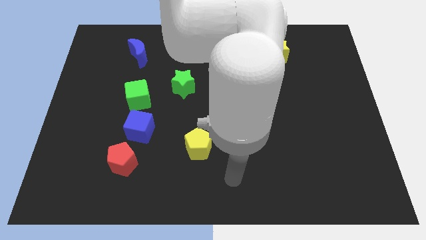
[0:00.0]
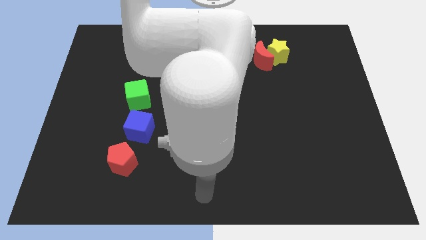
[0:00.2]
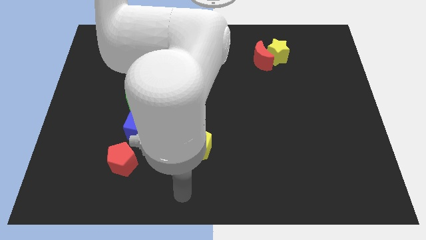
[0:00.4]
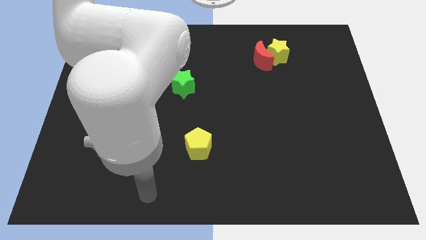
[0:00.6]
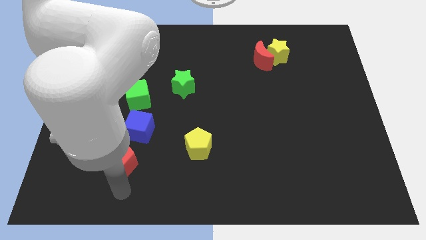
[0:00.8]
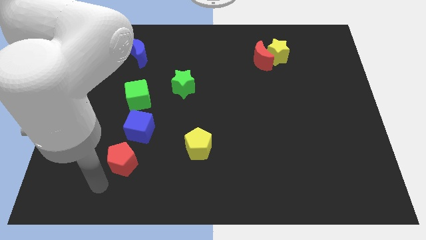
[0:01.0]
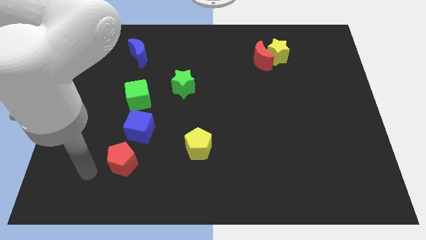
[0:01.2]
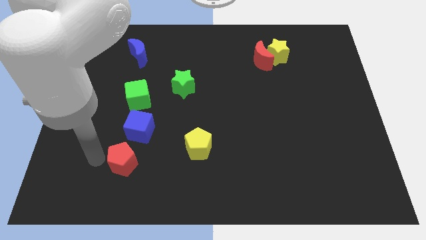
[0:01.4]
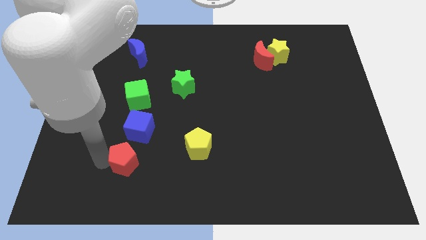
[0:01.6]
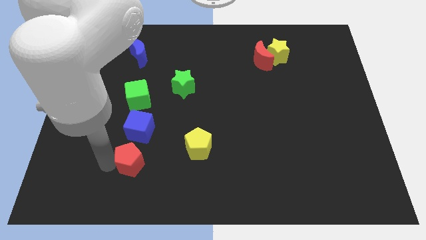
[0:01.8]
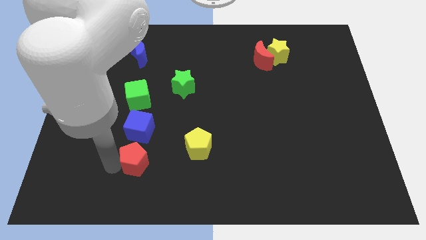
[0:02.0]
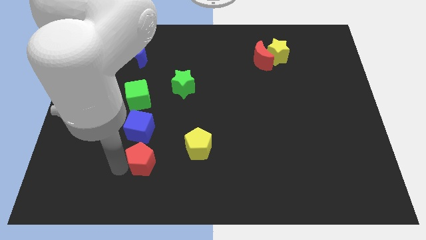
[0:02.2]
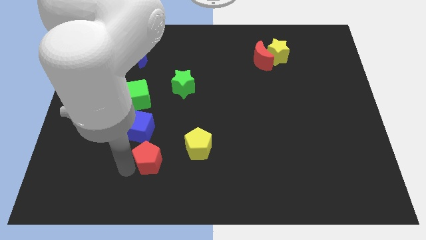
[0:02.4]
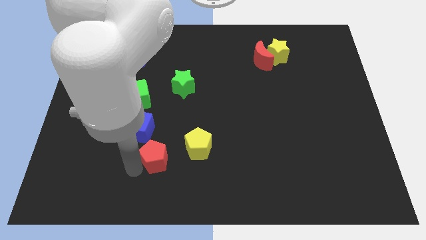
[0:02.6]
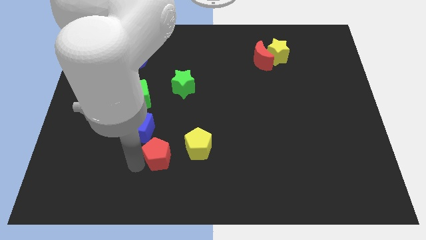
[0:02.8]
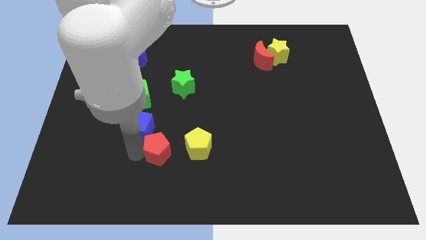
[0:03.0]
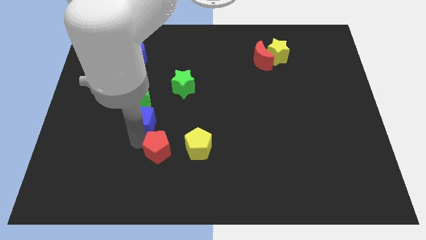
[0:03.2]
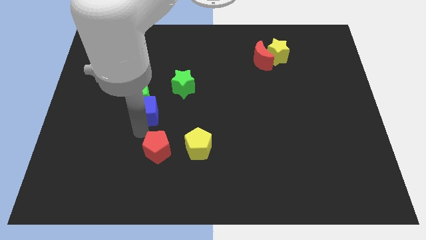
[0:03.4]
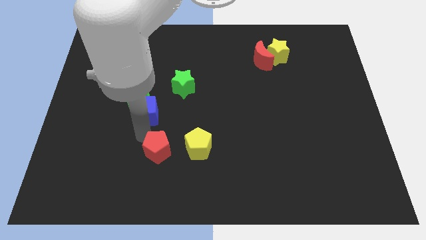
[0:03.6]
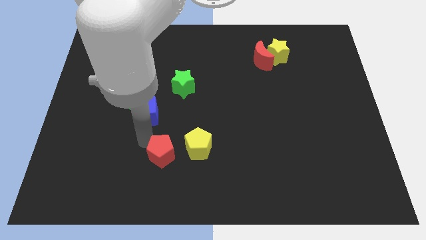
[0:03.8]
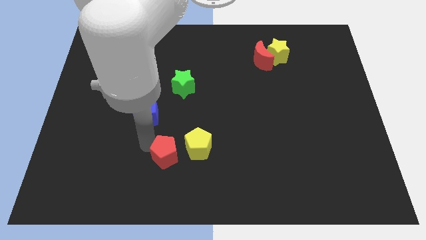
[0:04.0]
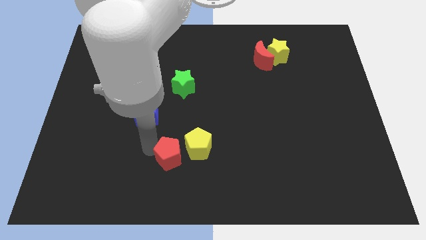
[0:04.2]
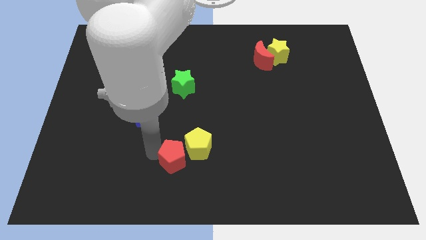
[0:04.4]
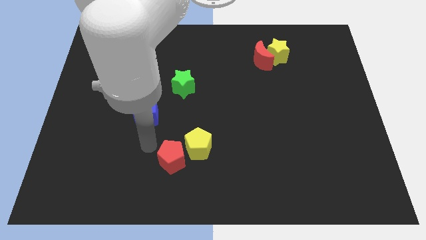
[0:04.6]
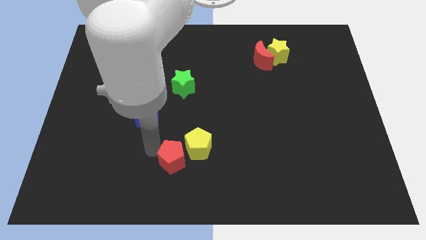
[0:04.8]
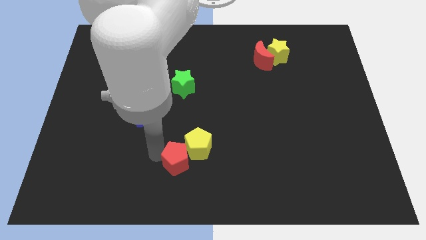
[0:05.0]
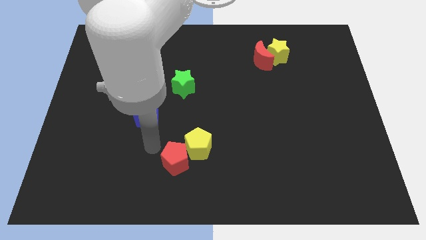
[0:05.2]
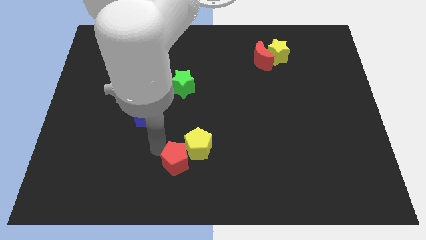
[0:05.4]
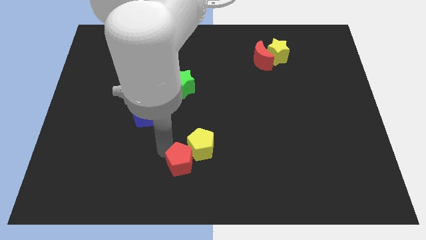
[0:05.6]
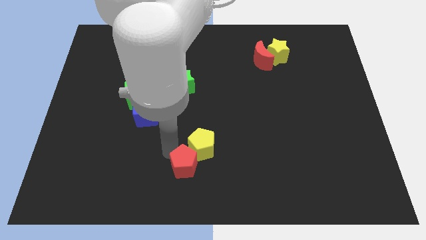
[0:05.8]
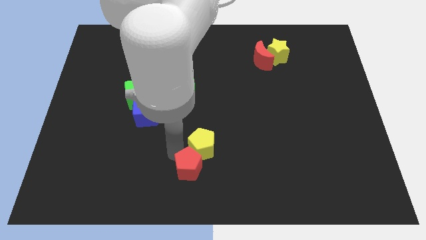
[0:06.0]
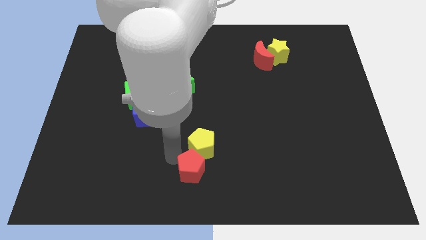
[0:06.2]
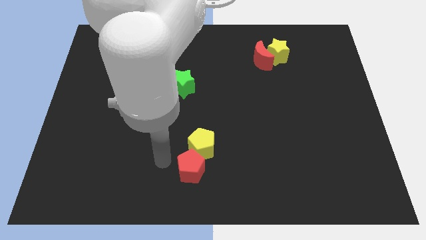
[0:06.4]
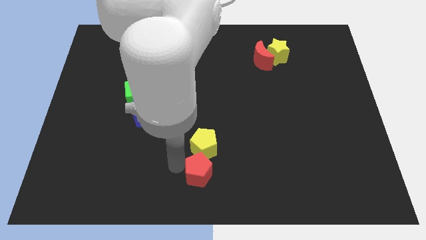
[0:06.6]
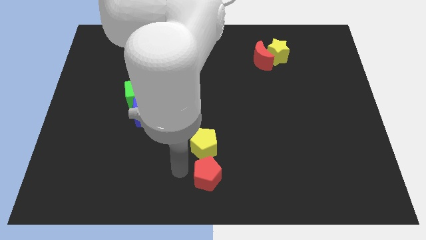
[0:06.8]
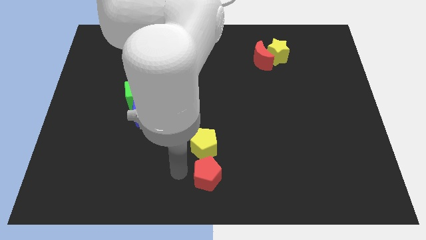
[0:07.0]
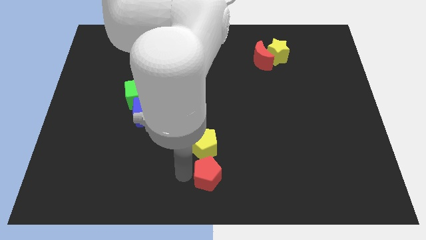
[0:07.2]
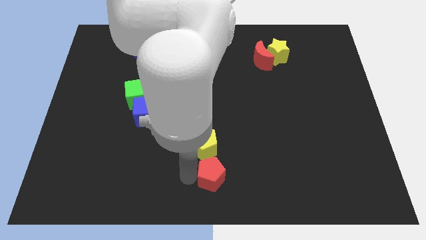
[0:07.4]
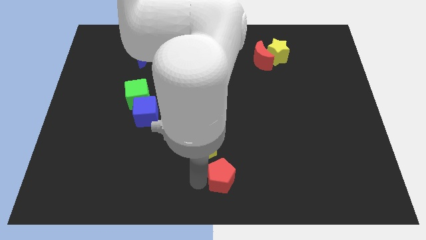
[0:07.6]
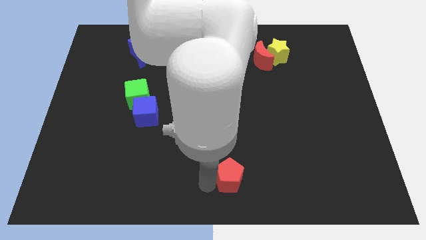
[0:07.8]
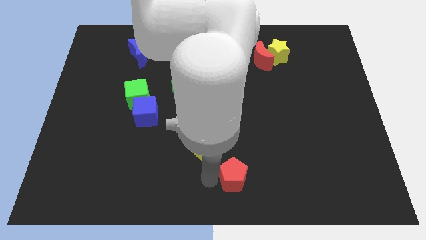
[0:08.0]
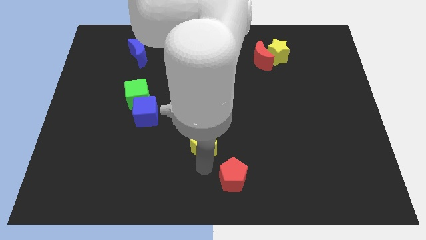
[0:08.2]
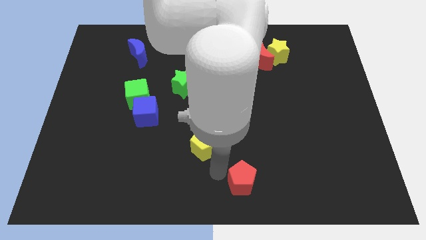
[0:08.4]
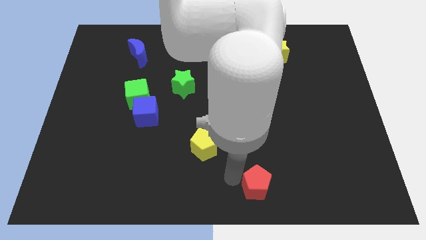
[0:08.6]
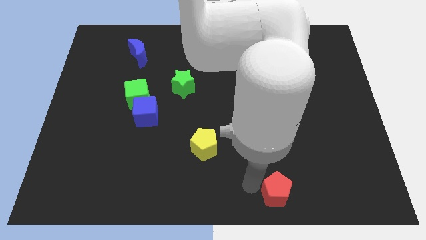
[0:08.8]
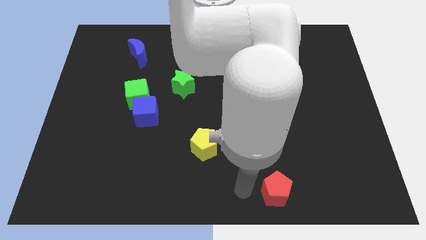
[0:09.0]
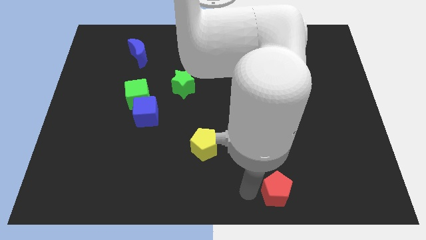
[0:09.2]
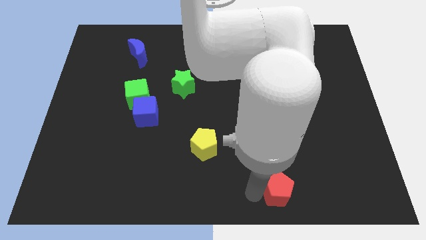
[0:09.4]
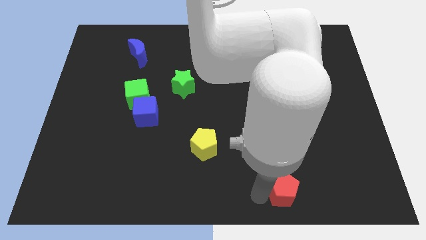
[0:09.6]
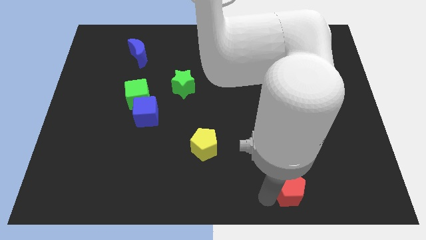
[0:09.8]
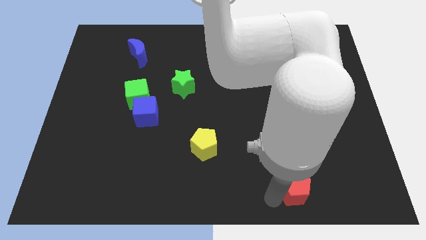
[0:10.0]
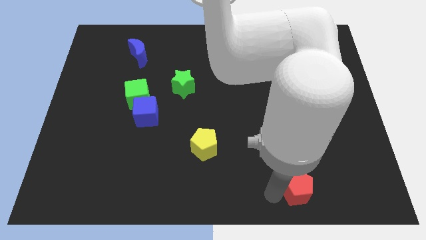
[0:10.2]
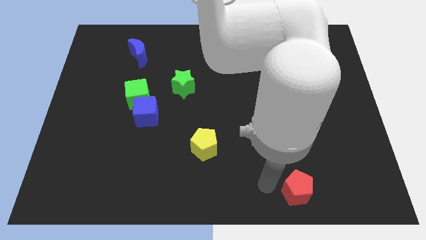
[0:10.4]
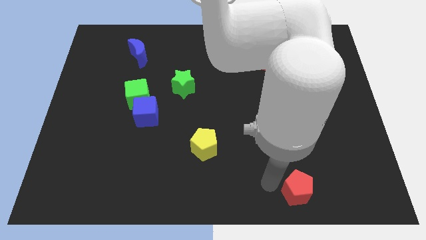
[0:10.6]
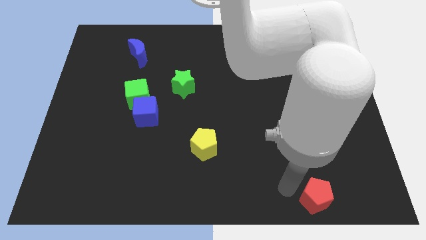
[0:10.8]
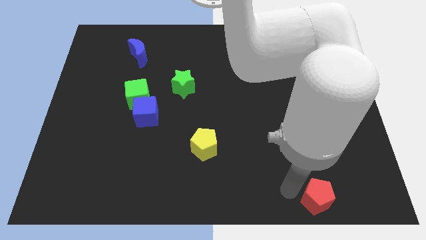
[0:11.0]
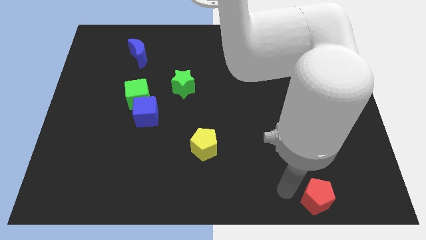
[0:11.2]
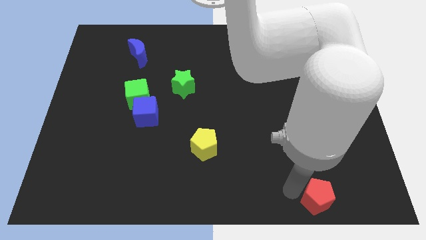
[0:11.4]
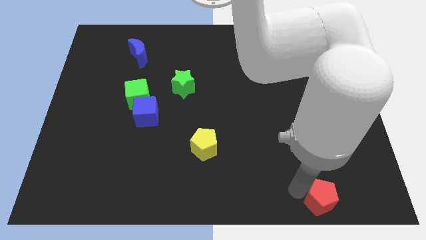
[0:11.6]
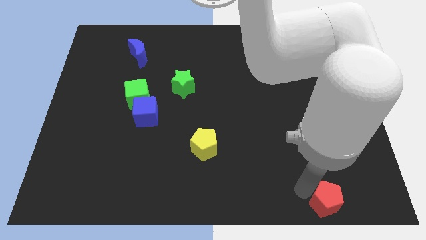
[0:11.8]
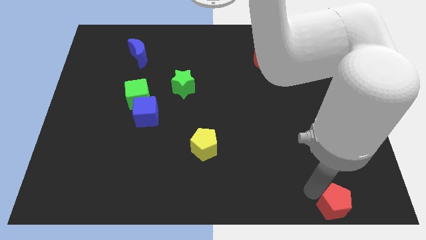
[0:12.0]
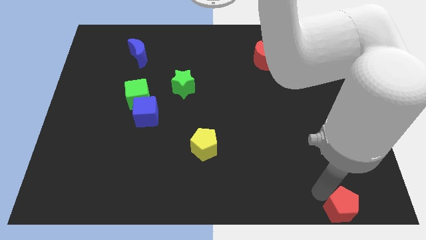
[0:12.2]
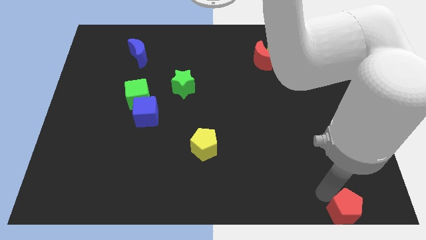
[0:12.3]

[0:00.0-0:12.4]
move the red pentagon to the lower right corner

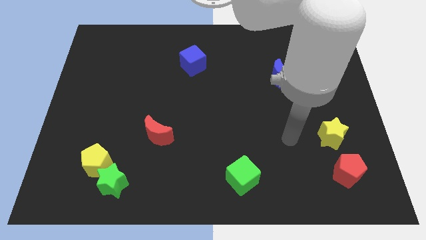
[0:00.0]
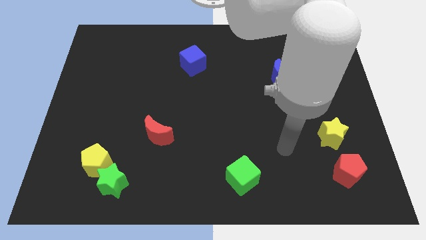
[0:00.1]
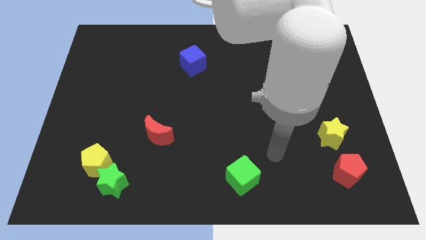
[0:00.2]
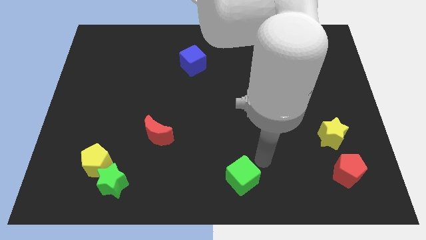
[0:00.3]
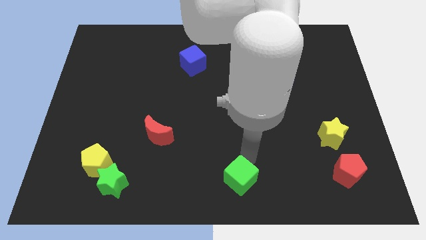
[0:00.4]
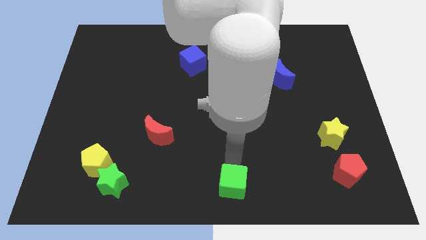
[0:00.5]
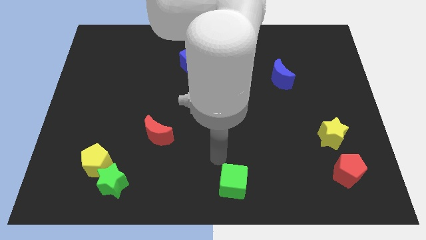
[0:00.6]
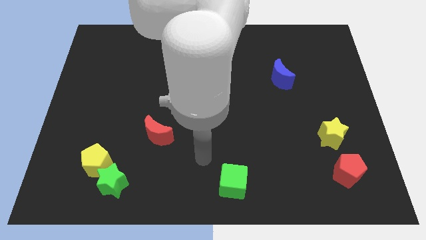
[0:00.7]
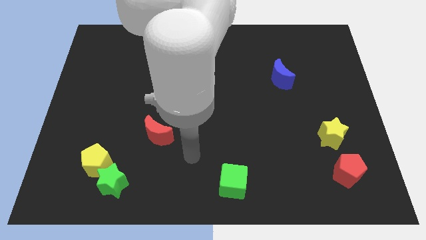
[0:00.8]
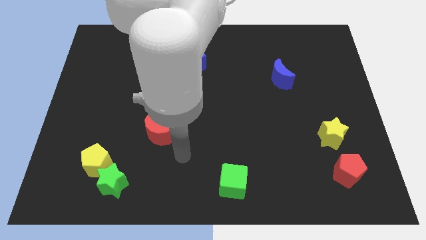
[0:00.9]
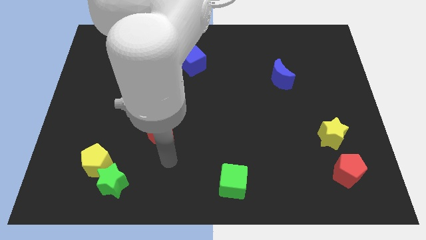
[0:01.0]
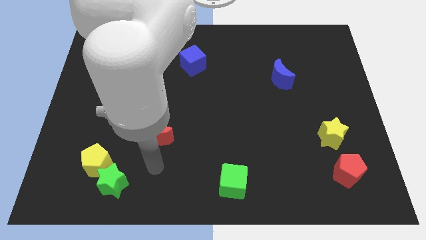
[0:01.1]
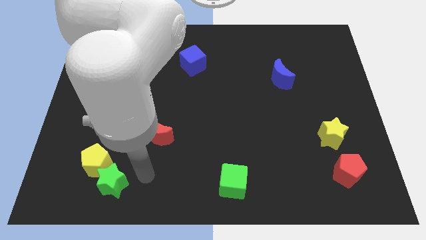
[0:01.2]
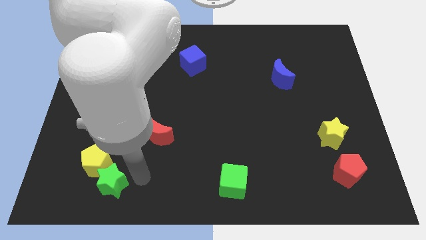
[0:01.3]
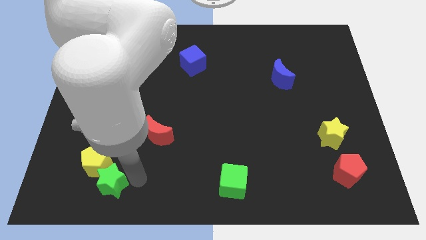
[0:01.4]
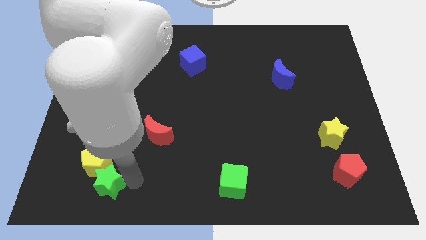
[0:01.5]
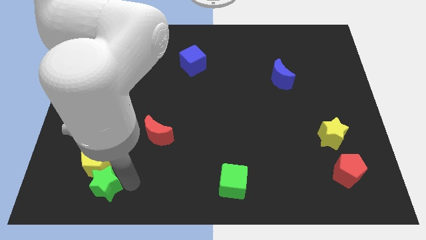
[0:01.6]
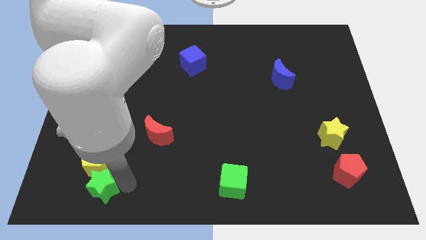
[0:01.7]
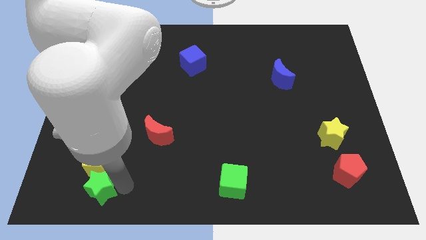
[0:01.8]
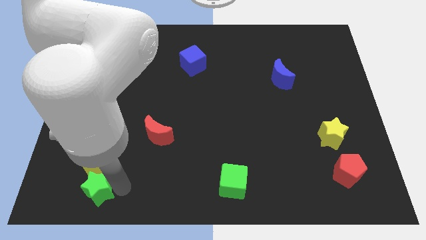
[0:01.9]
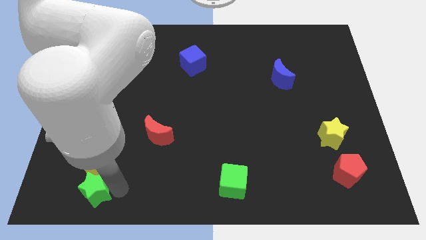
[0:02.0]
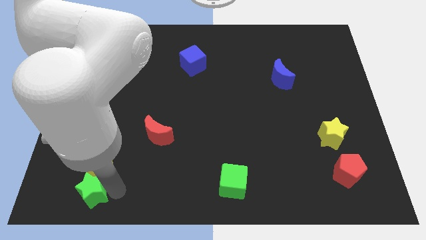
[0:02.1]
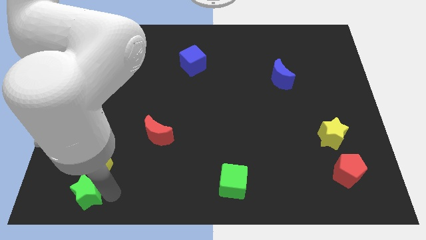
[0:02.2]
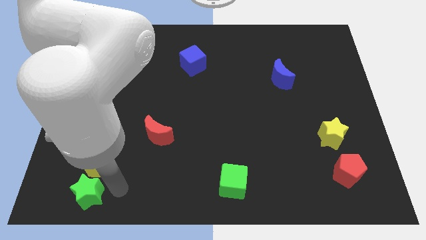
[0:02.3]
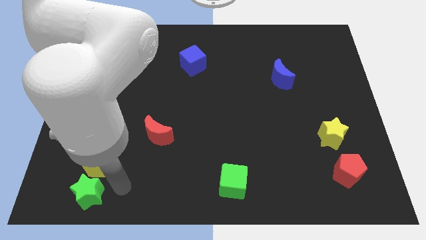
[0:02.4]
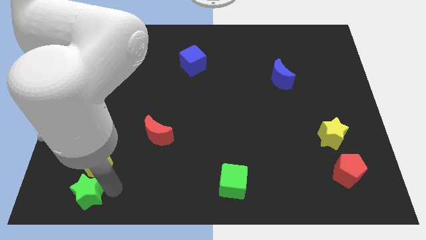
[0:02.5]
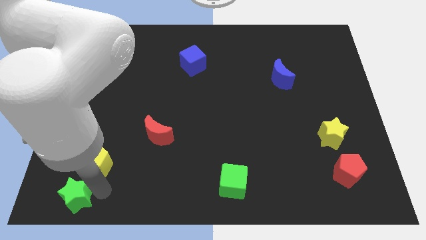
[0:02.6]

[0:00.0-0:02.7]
put the green star to the bottom left
